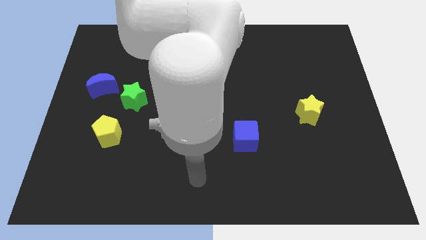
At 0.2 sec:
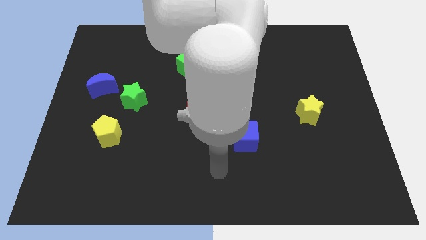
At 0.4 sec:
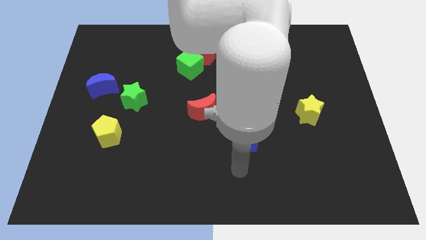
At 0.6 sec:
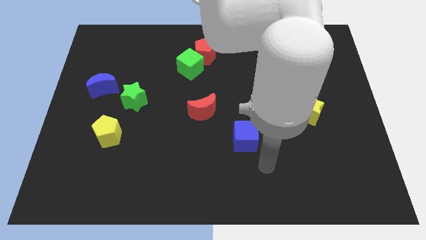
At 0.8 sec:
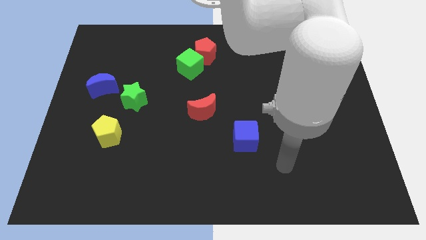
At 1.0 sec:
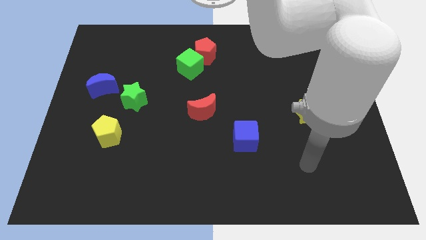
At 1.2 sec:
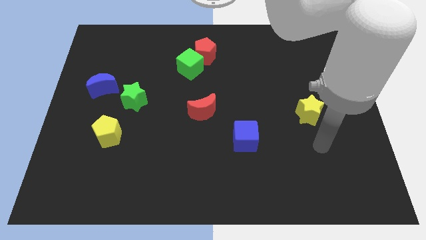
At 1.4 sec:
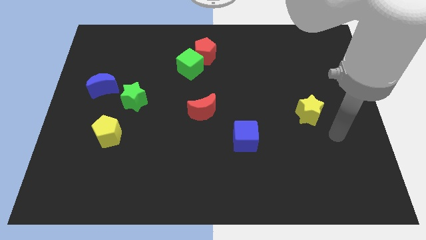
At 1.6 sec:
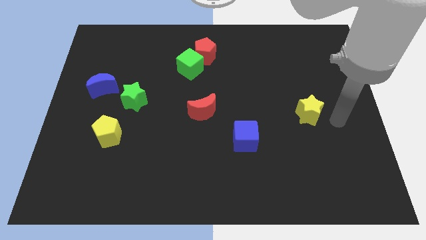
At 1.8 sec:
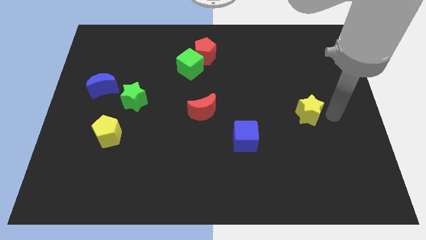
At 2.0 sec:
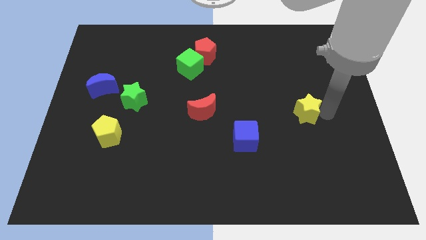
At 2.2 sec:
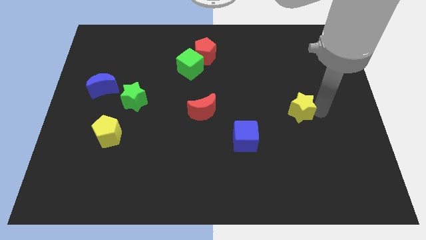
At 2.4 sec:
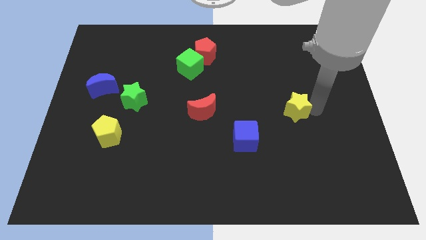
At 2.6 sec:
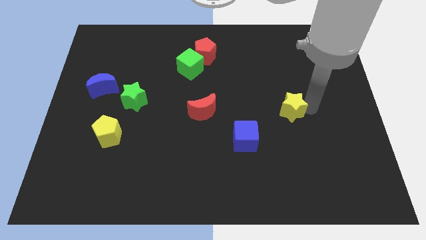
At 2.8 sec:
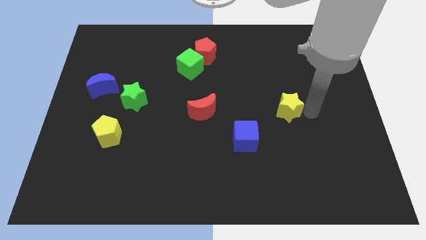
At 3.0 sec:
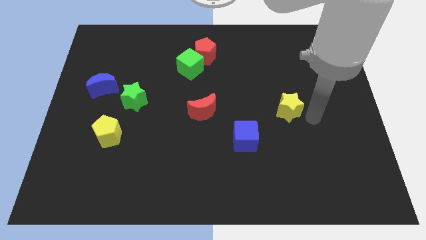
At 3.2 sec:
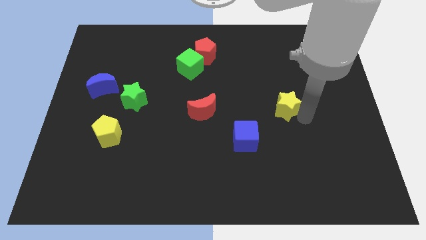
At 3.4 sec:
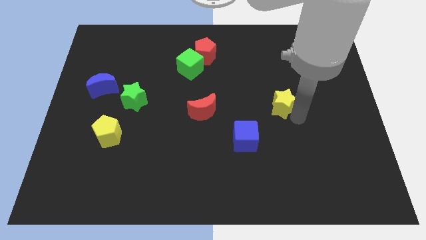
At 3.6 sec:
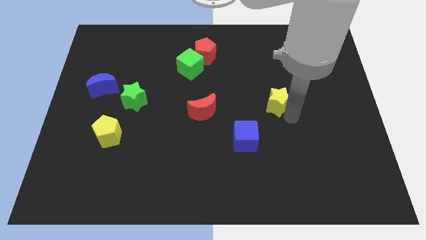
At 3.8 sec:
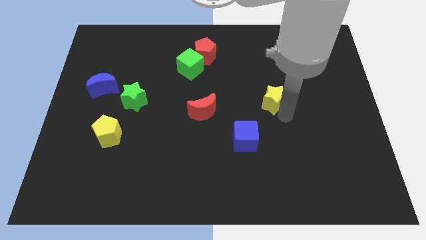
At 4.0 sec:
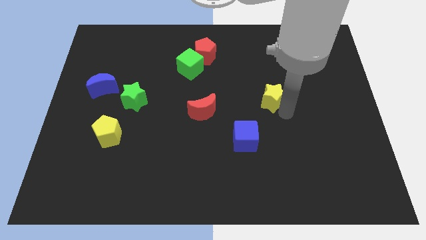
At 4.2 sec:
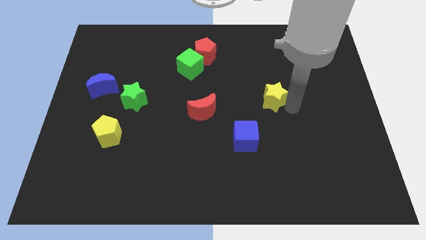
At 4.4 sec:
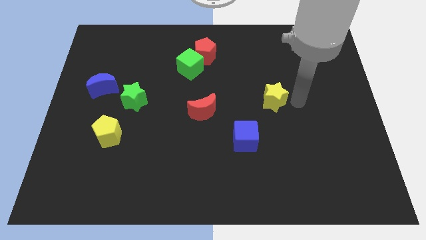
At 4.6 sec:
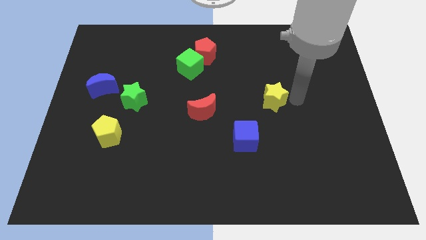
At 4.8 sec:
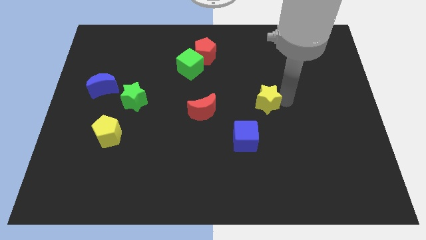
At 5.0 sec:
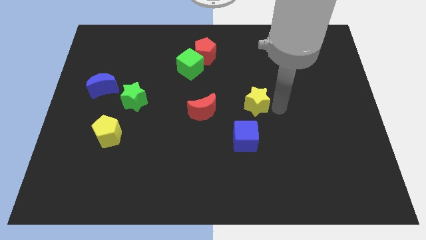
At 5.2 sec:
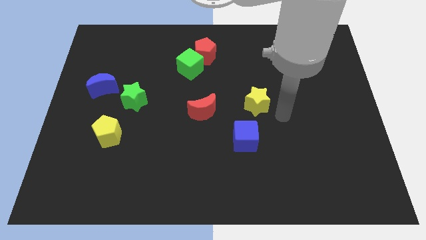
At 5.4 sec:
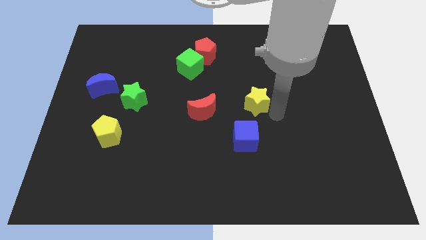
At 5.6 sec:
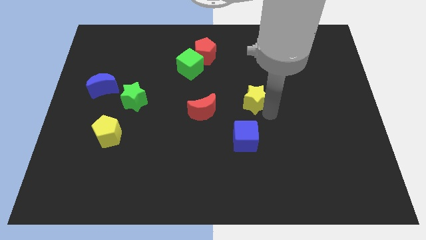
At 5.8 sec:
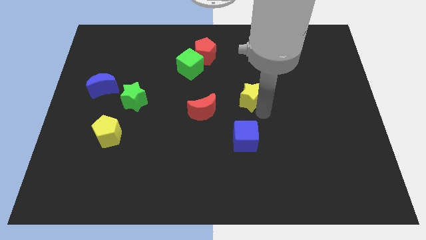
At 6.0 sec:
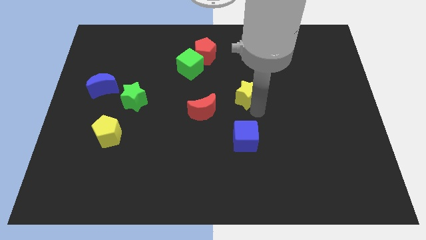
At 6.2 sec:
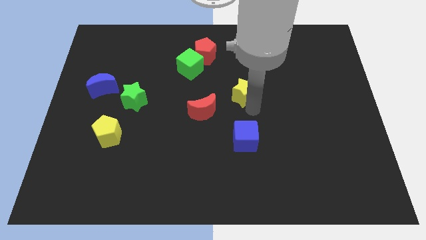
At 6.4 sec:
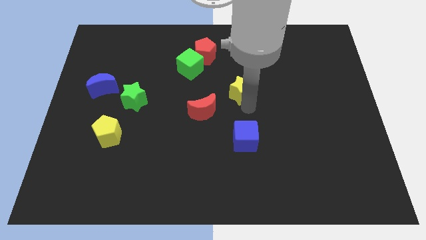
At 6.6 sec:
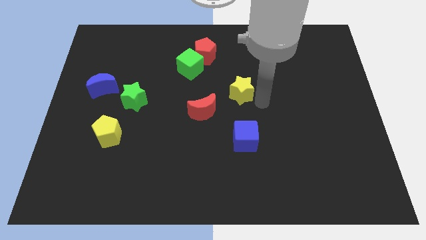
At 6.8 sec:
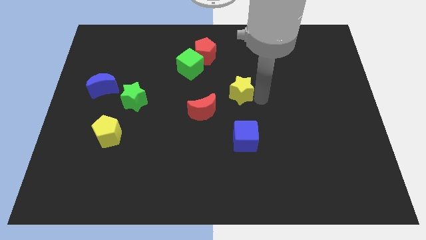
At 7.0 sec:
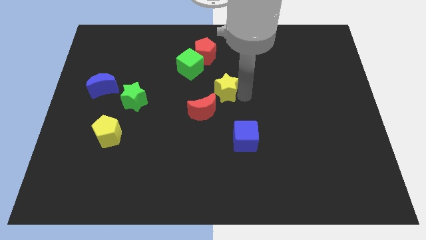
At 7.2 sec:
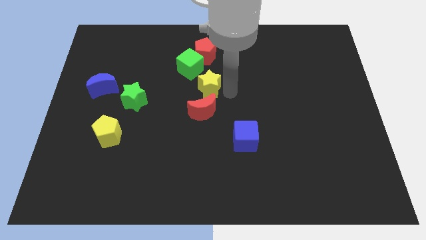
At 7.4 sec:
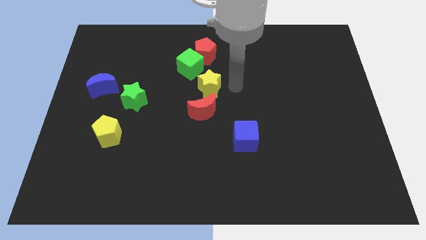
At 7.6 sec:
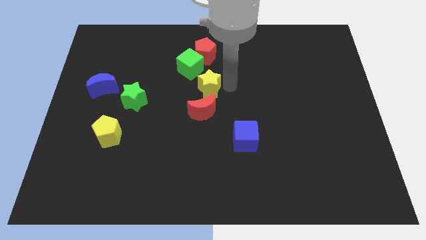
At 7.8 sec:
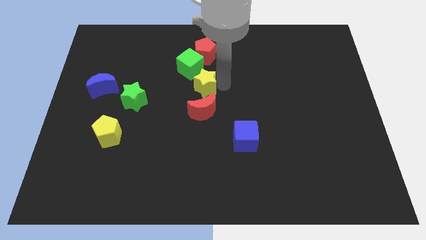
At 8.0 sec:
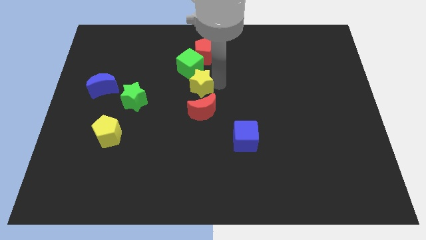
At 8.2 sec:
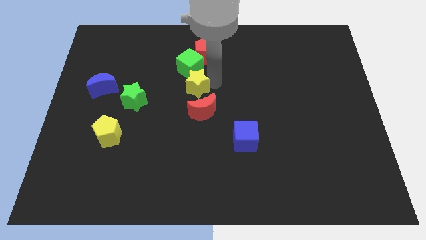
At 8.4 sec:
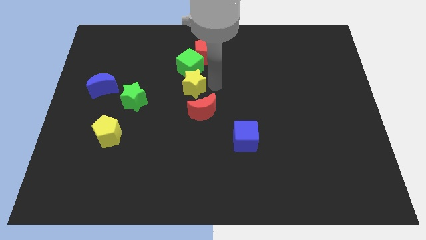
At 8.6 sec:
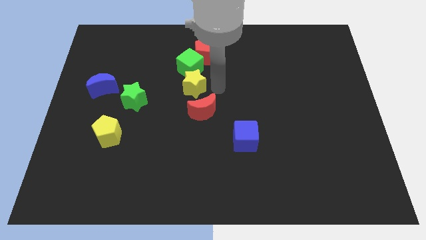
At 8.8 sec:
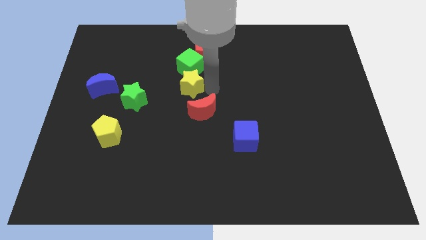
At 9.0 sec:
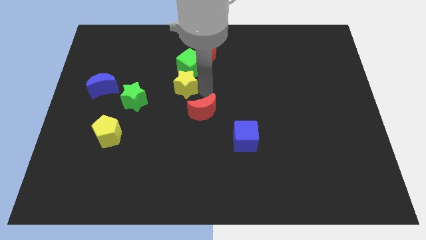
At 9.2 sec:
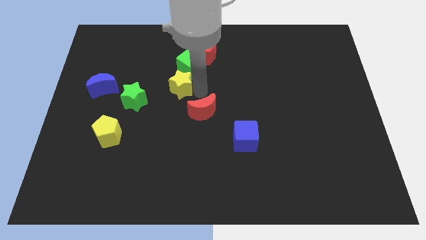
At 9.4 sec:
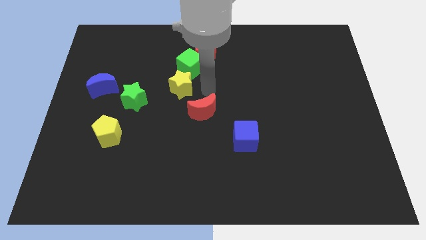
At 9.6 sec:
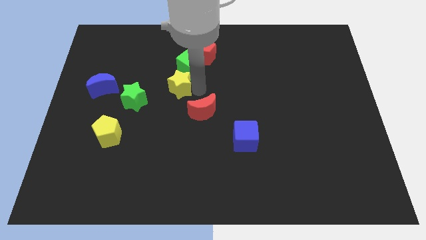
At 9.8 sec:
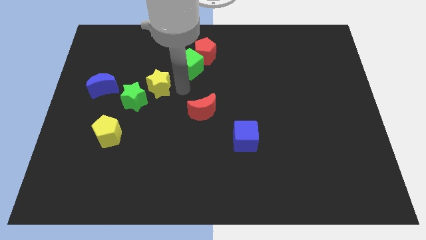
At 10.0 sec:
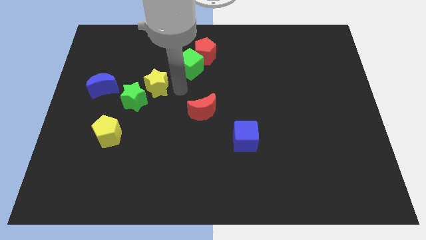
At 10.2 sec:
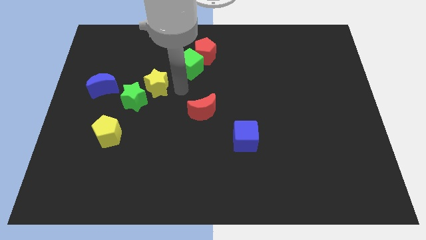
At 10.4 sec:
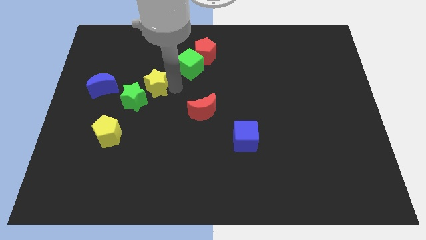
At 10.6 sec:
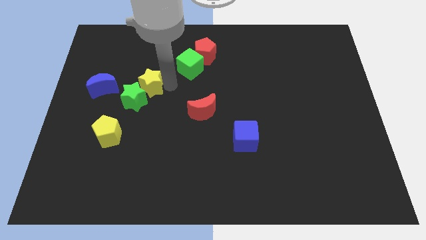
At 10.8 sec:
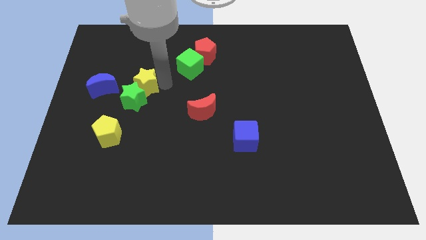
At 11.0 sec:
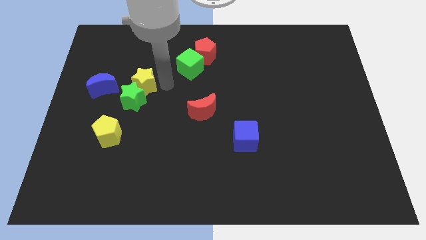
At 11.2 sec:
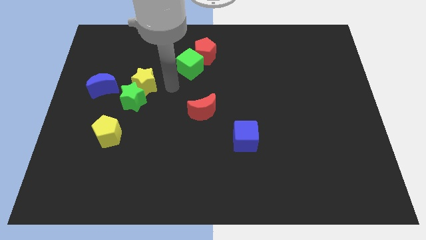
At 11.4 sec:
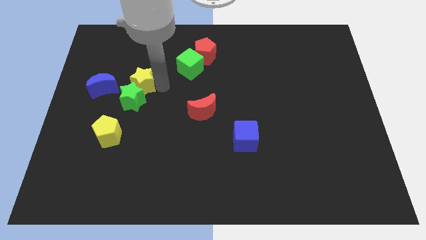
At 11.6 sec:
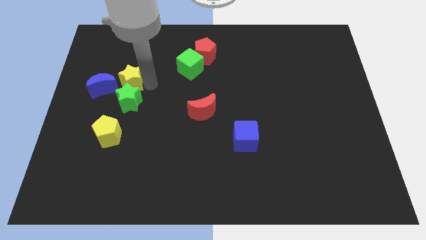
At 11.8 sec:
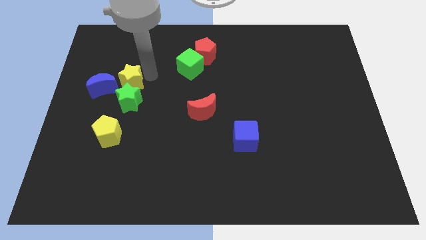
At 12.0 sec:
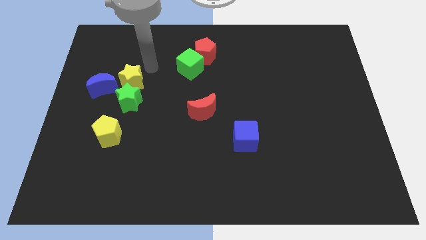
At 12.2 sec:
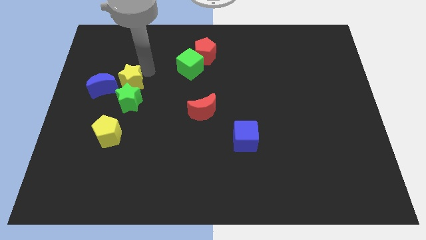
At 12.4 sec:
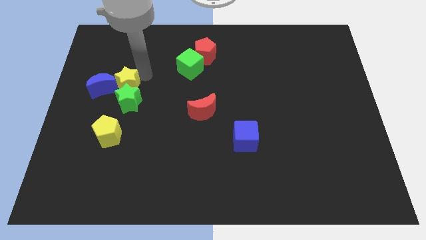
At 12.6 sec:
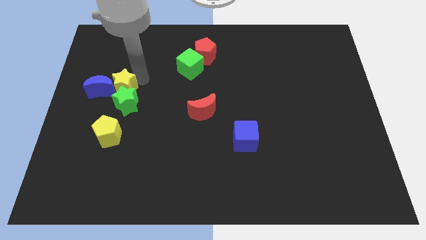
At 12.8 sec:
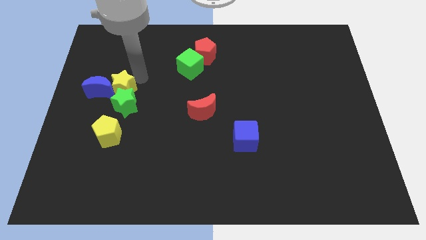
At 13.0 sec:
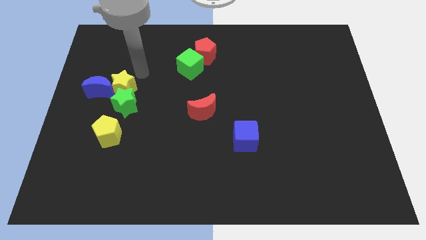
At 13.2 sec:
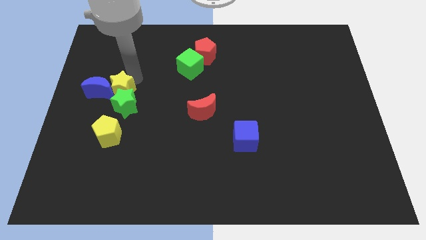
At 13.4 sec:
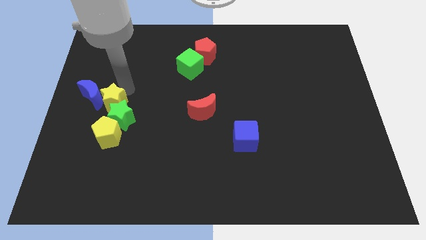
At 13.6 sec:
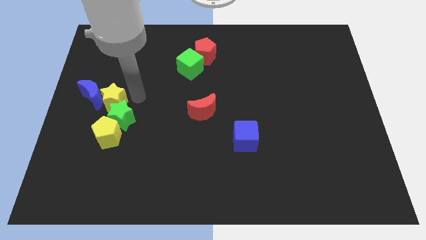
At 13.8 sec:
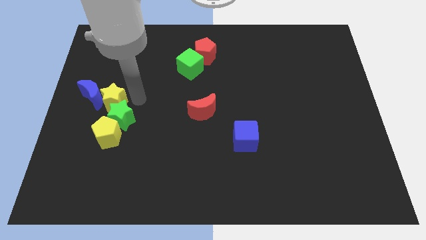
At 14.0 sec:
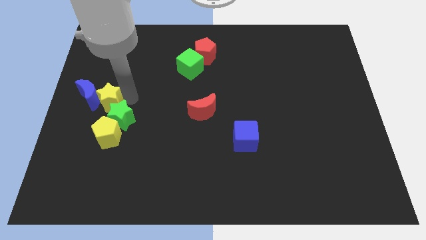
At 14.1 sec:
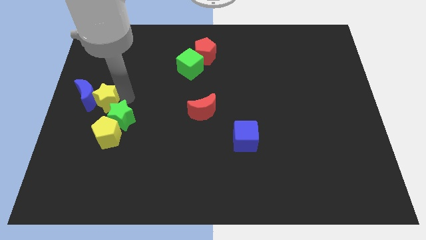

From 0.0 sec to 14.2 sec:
push the yellow star to the left side of the board
